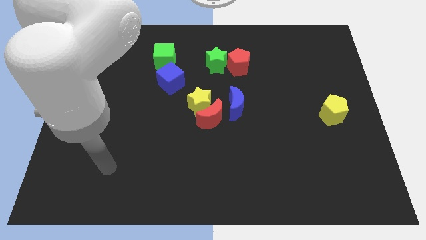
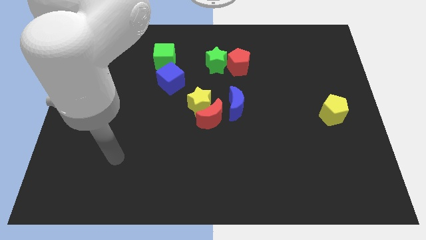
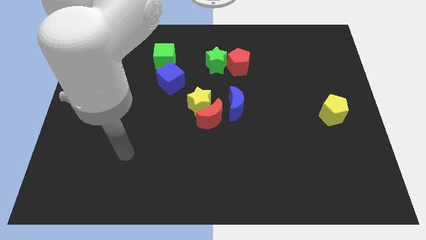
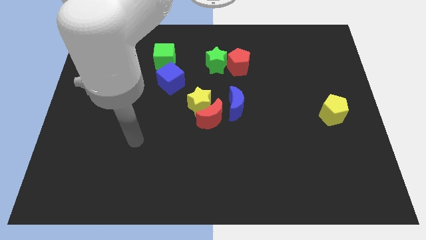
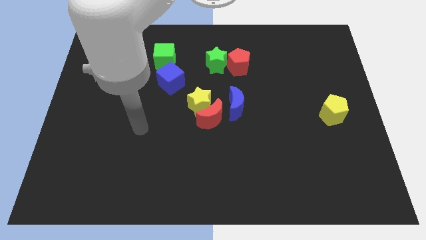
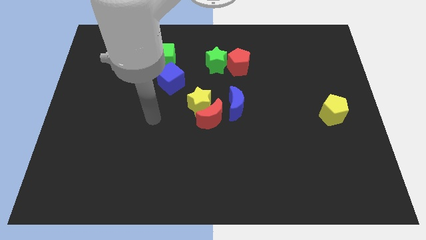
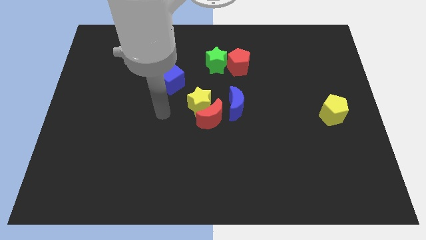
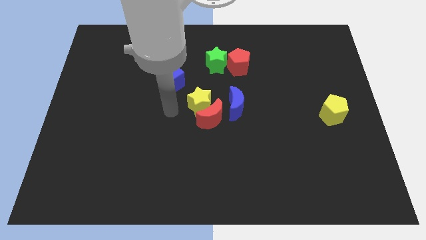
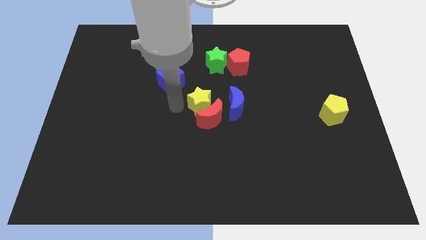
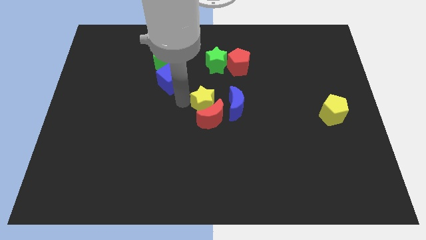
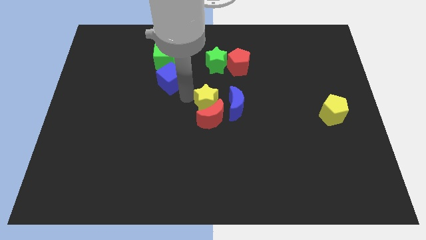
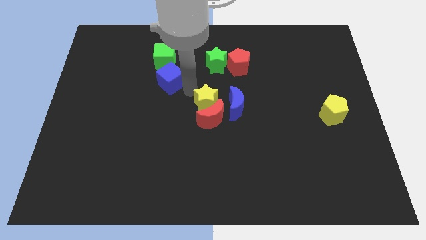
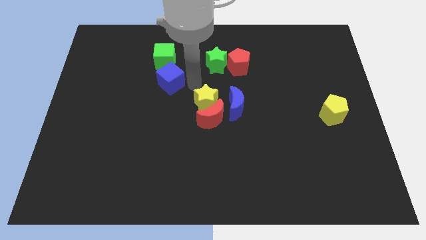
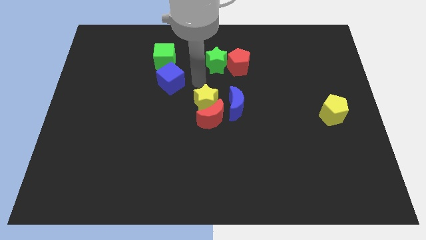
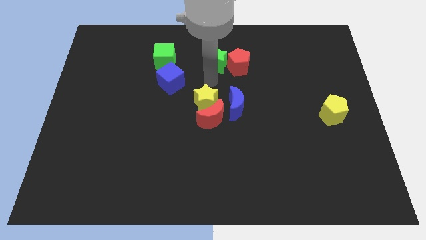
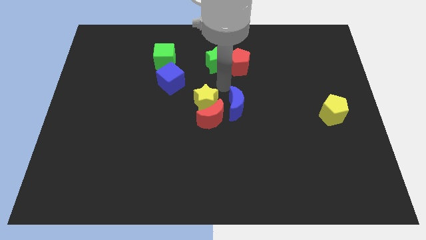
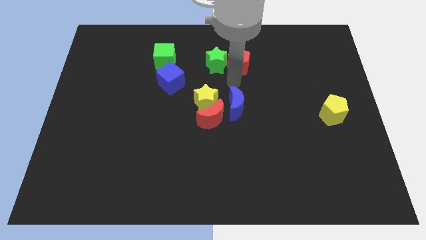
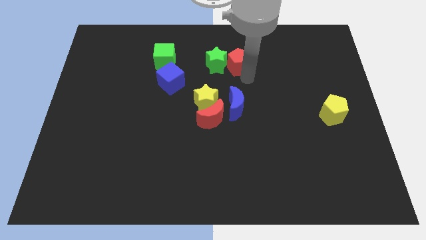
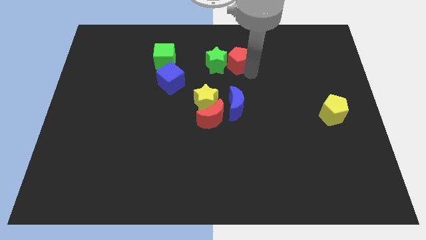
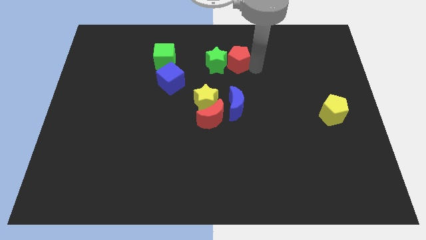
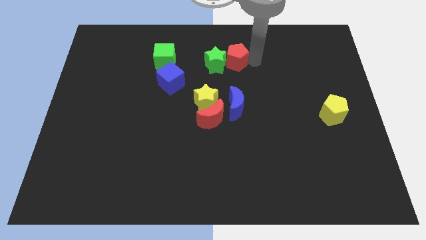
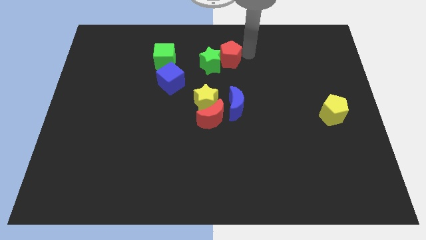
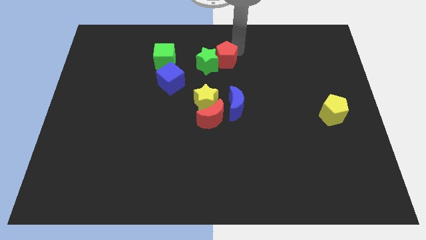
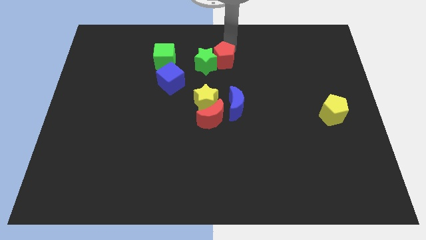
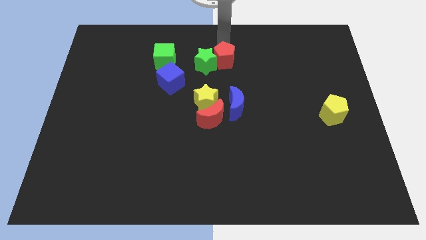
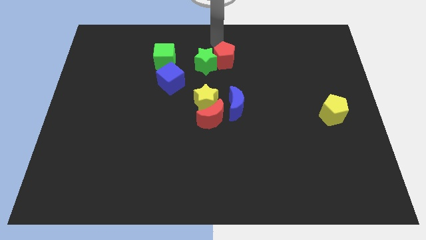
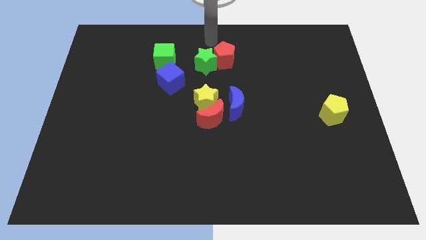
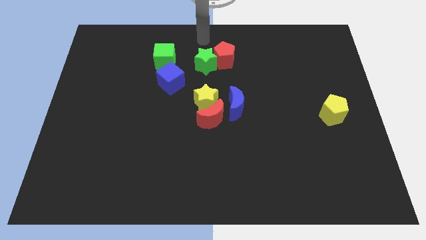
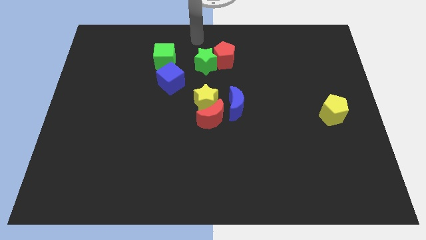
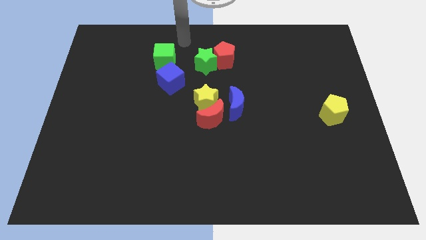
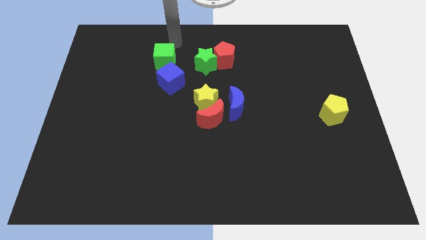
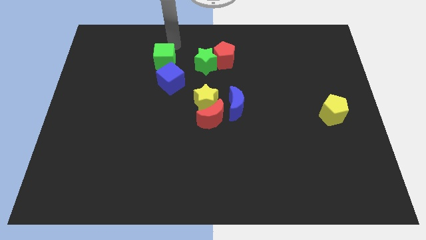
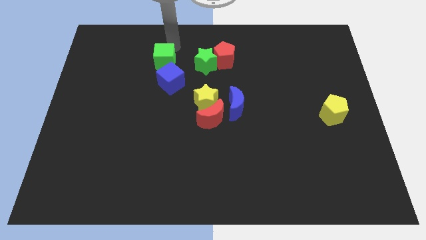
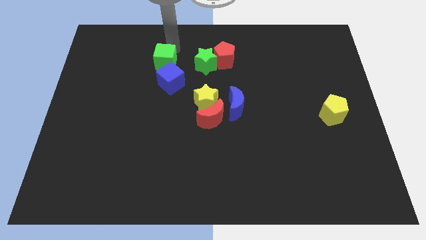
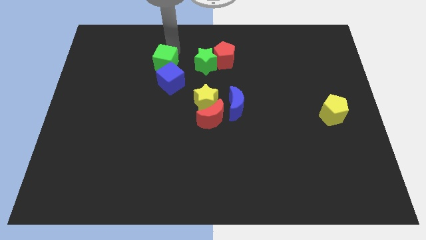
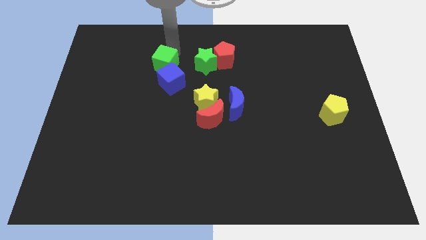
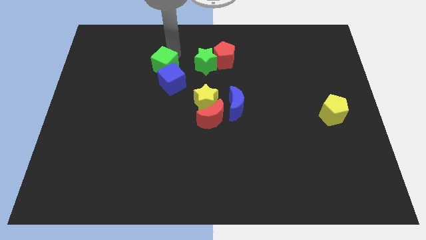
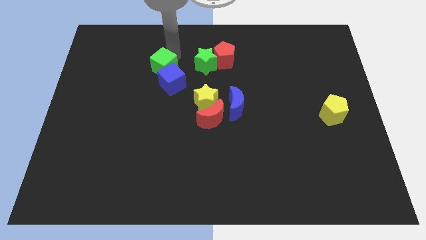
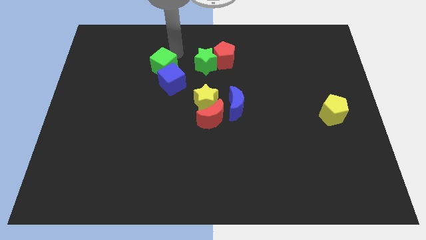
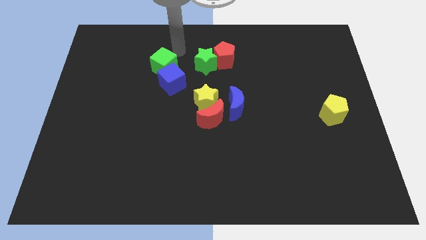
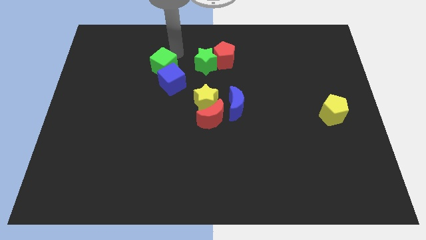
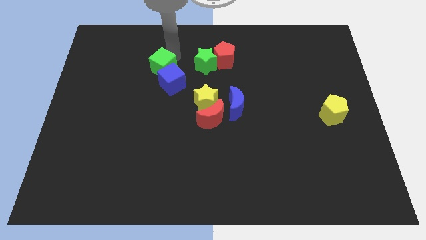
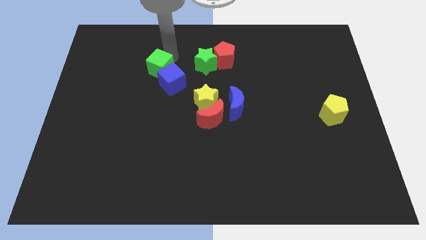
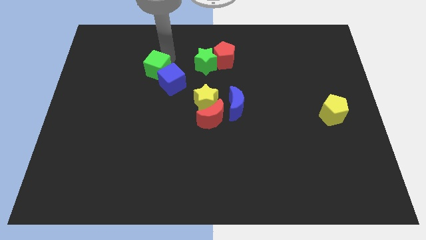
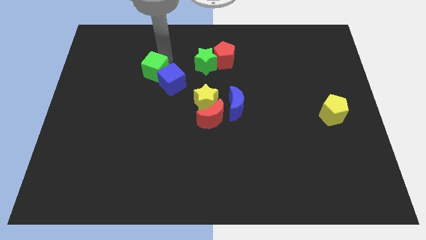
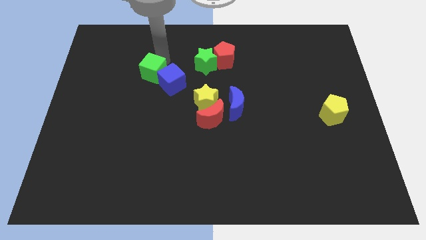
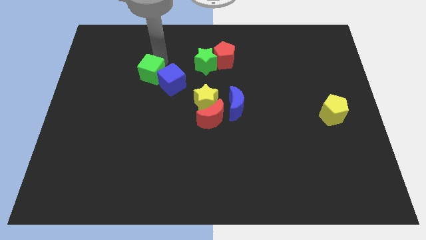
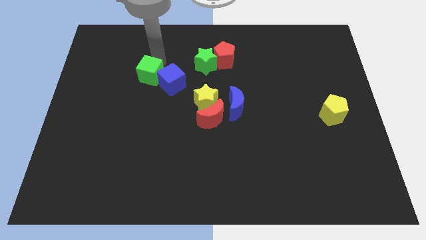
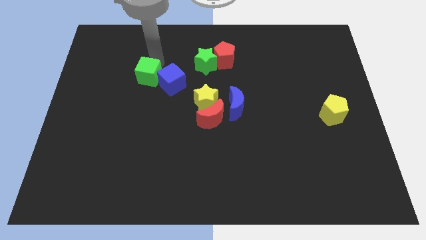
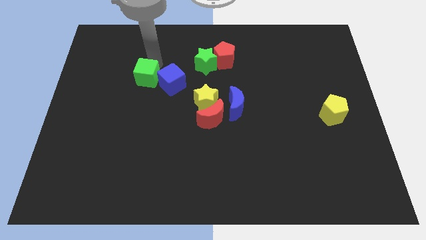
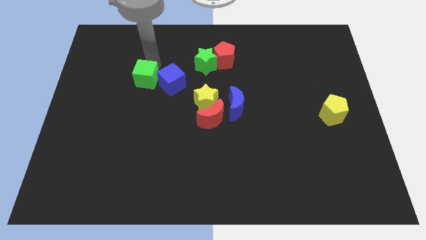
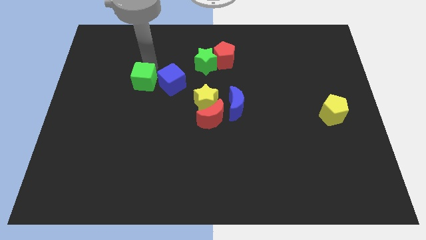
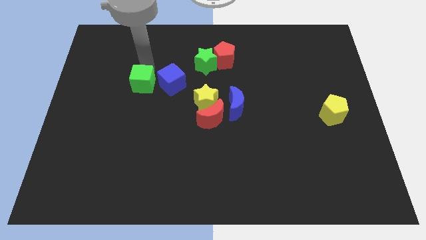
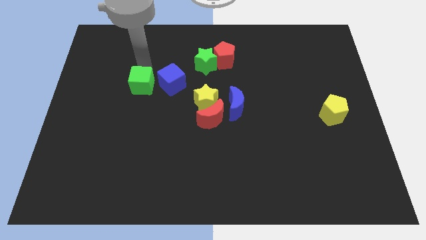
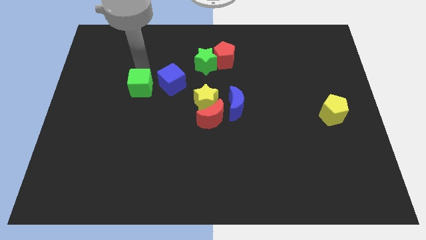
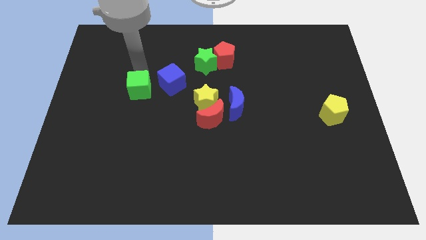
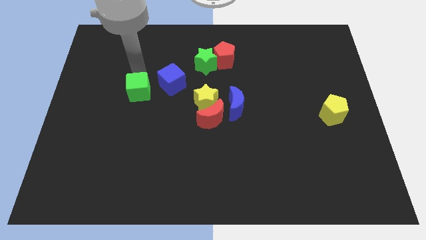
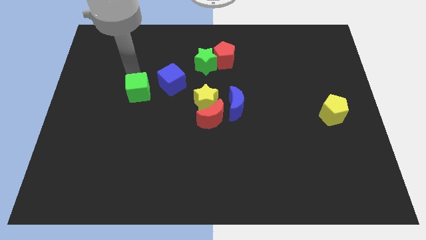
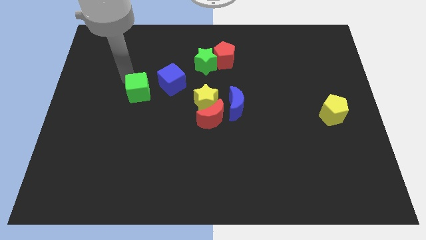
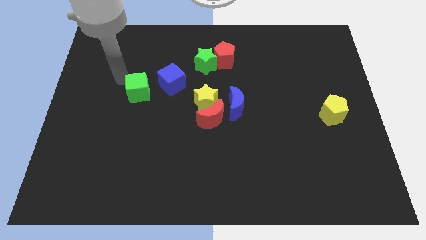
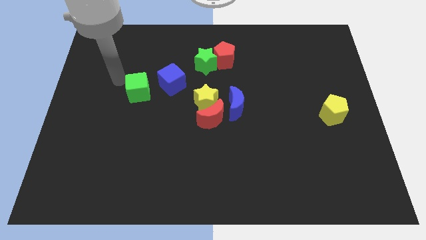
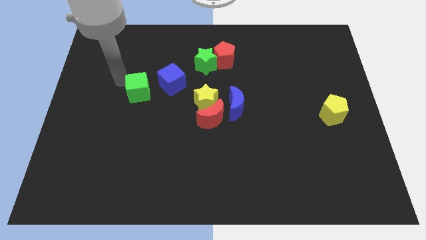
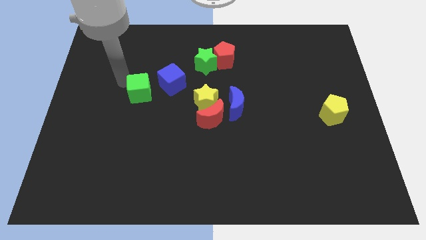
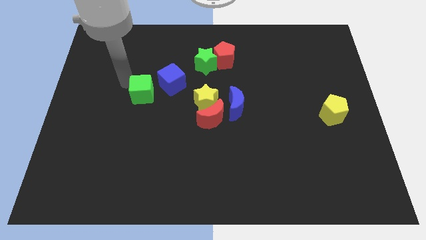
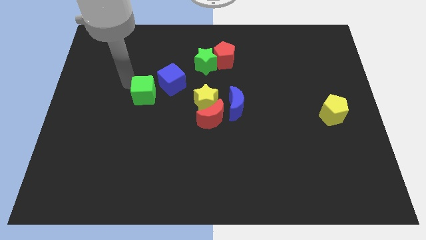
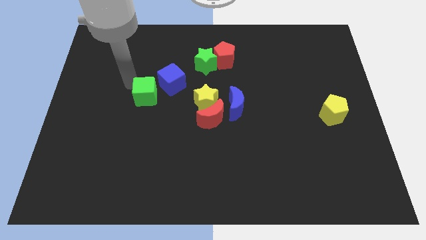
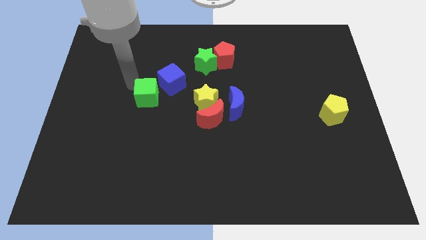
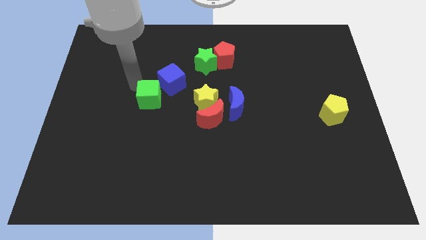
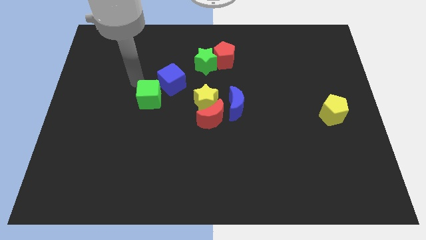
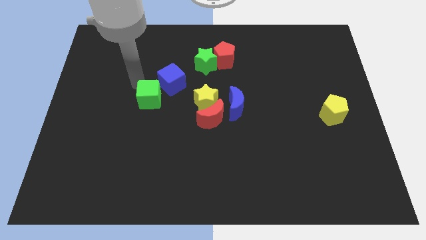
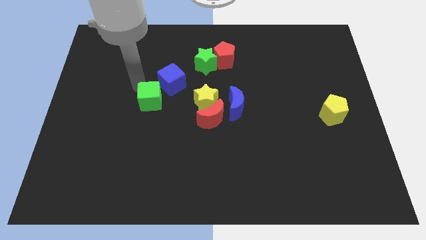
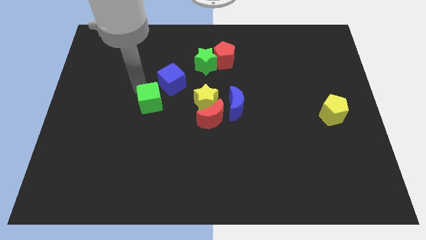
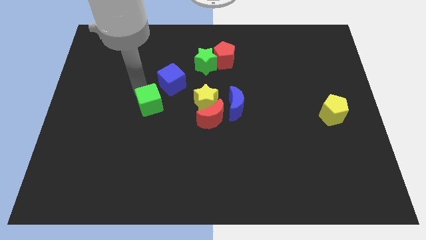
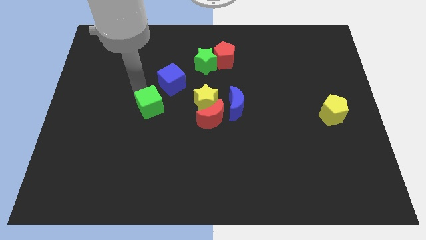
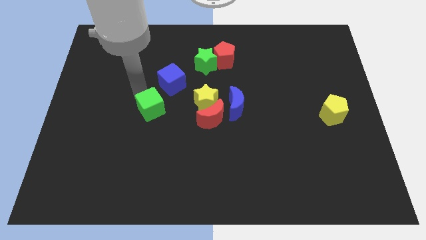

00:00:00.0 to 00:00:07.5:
move the green cube to the left of the red moon

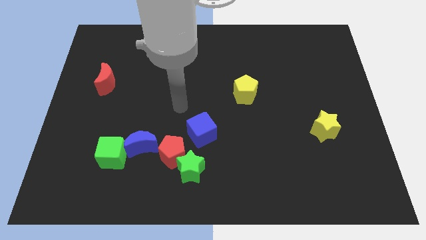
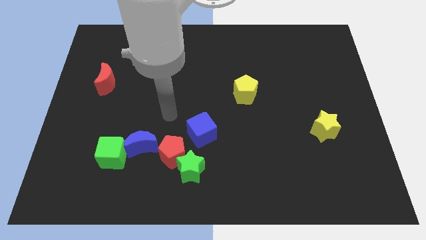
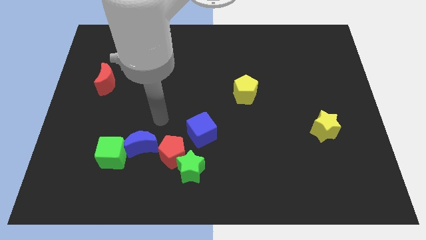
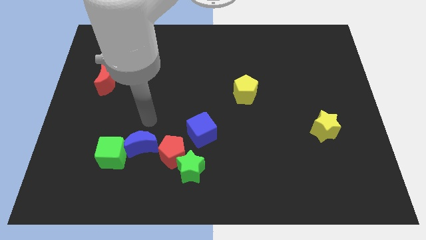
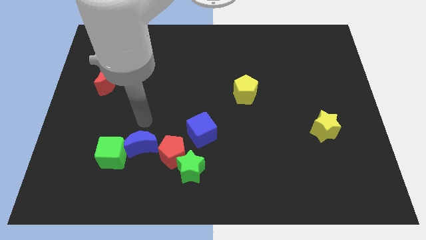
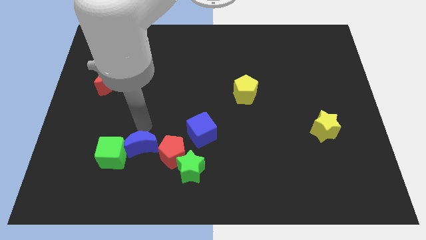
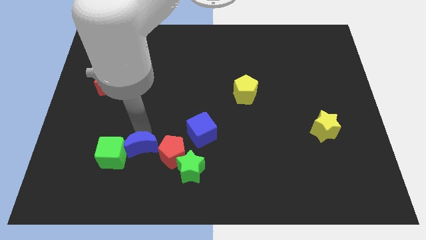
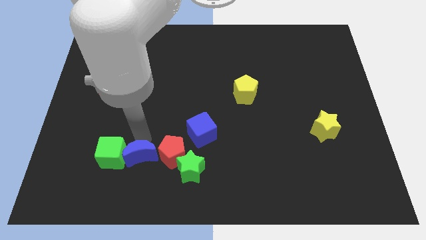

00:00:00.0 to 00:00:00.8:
slide the blue moon to the left side of the green star
